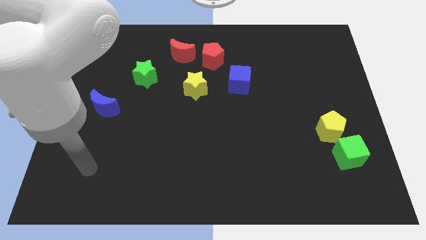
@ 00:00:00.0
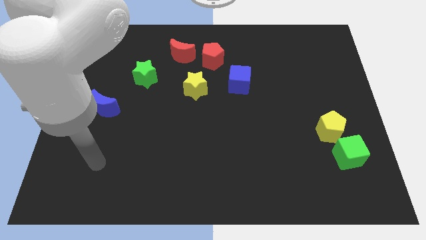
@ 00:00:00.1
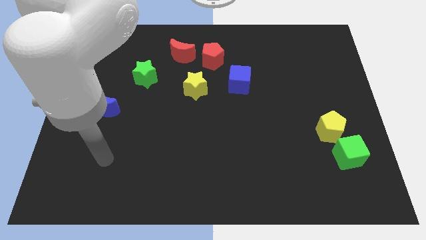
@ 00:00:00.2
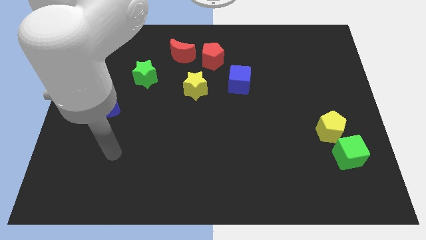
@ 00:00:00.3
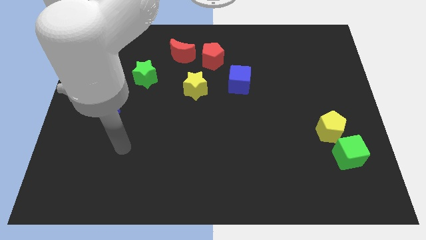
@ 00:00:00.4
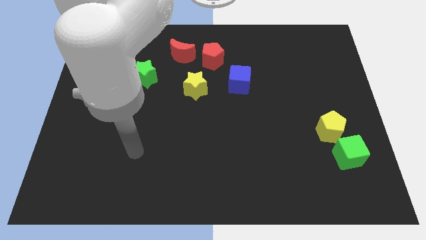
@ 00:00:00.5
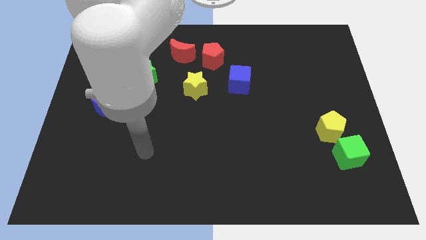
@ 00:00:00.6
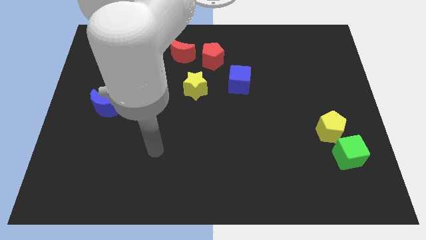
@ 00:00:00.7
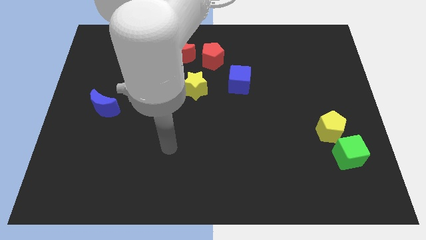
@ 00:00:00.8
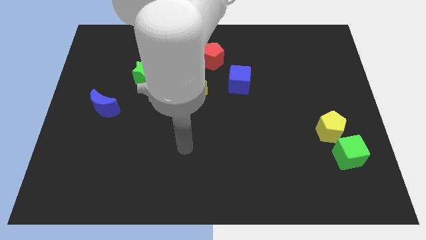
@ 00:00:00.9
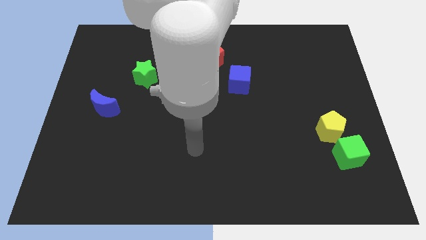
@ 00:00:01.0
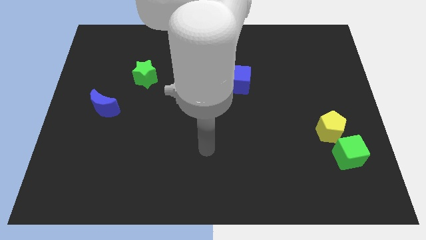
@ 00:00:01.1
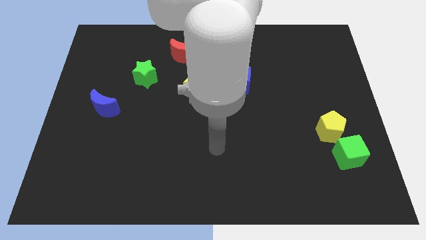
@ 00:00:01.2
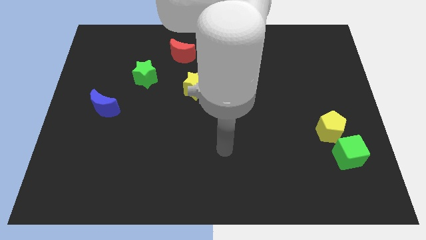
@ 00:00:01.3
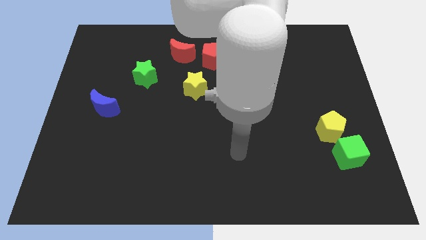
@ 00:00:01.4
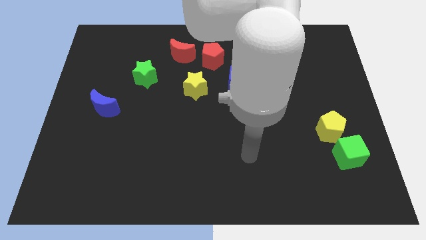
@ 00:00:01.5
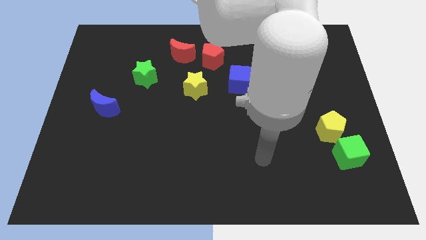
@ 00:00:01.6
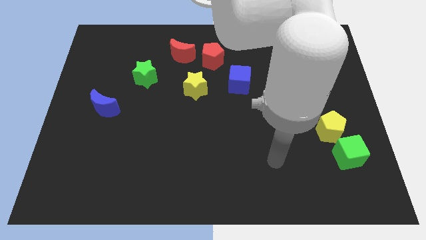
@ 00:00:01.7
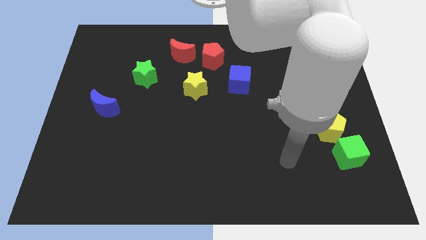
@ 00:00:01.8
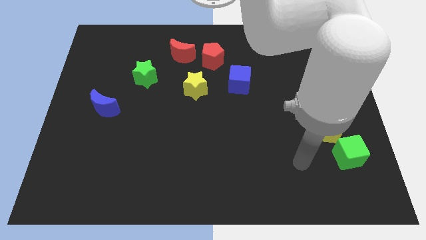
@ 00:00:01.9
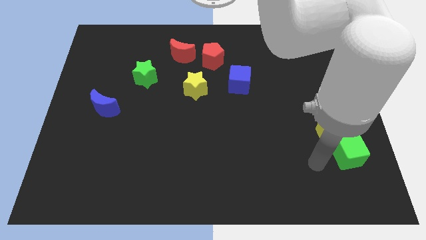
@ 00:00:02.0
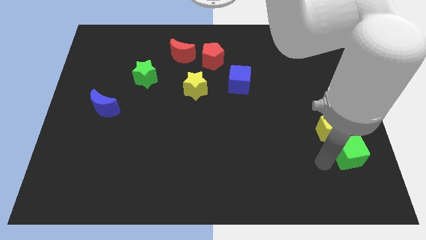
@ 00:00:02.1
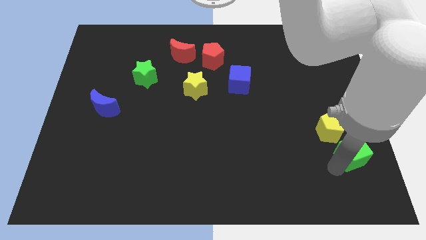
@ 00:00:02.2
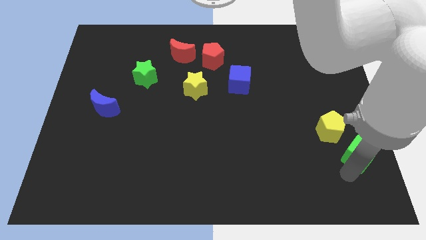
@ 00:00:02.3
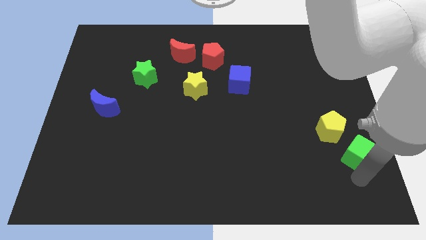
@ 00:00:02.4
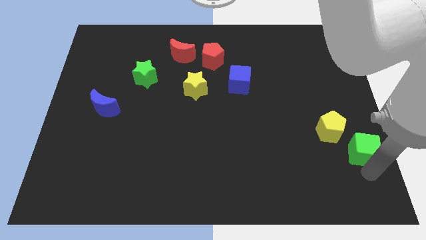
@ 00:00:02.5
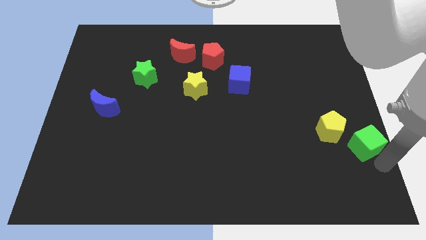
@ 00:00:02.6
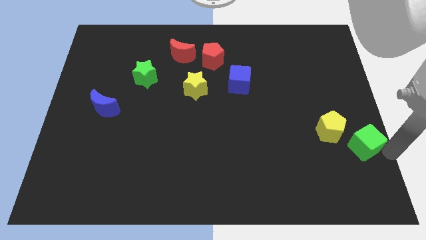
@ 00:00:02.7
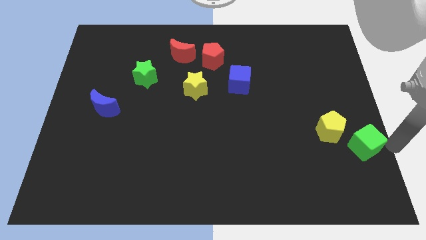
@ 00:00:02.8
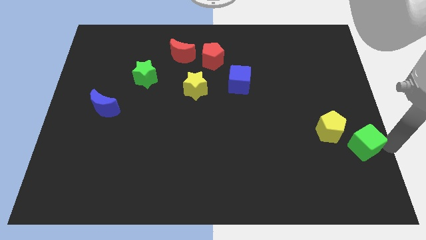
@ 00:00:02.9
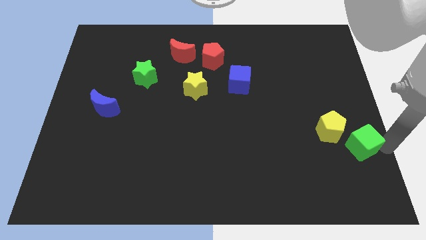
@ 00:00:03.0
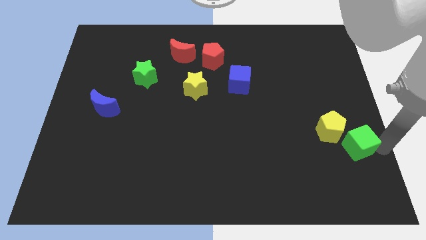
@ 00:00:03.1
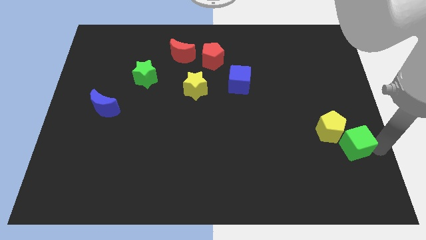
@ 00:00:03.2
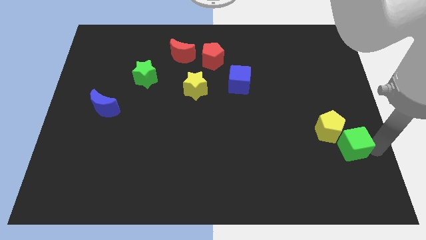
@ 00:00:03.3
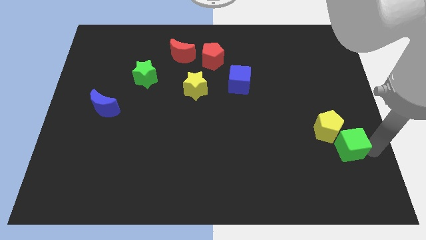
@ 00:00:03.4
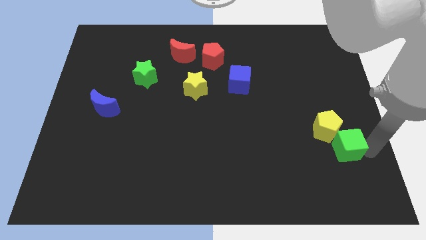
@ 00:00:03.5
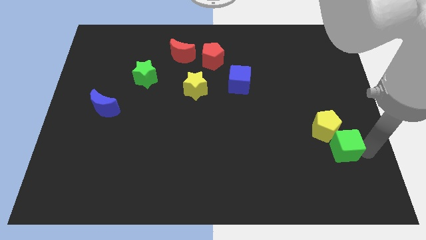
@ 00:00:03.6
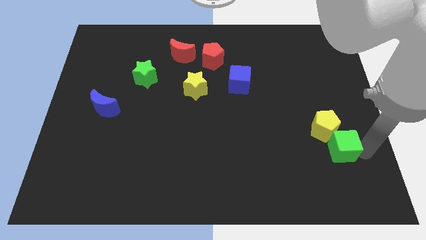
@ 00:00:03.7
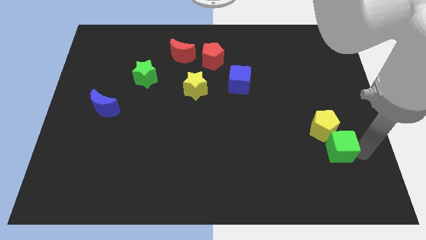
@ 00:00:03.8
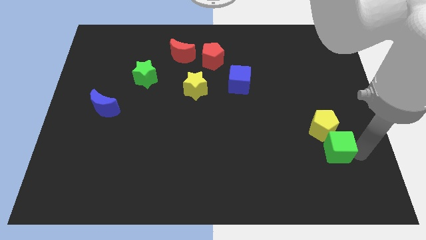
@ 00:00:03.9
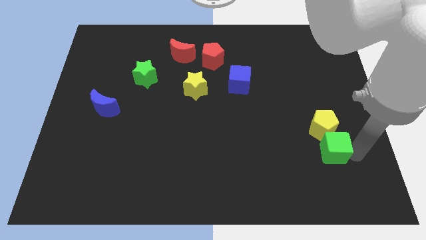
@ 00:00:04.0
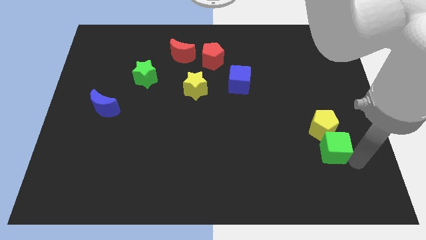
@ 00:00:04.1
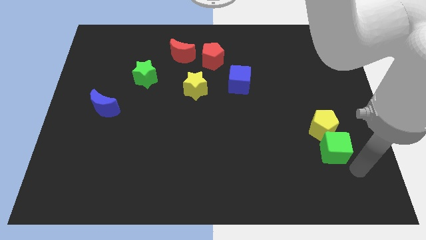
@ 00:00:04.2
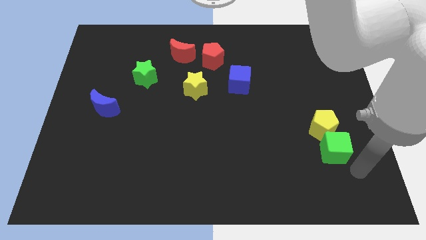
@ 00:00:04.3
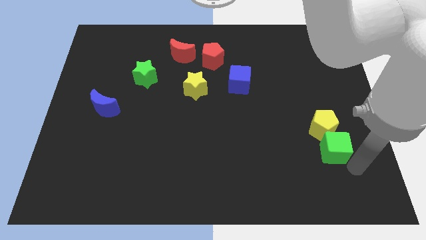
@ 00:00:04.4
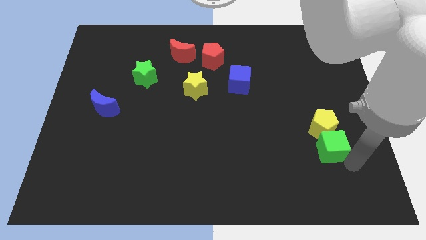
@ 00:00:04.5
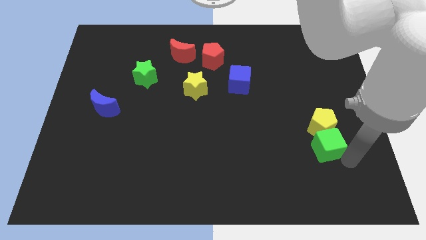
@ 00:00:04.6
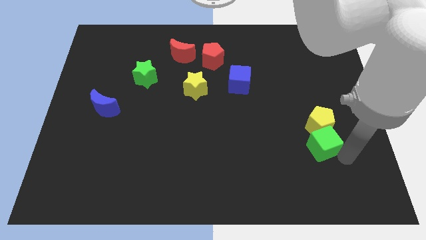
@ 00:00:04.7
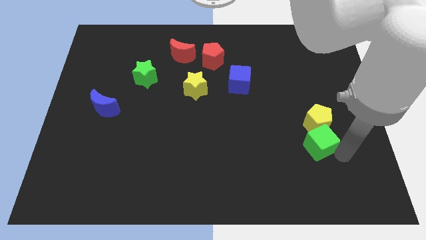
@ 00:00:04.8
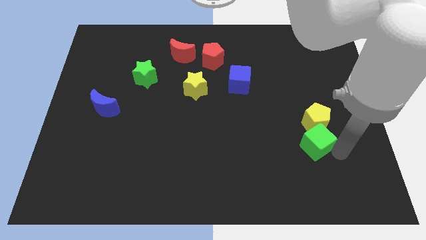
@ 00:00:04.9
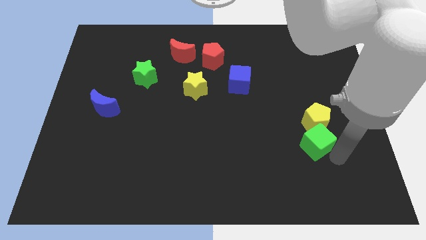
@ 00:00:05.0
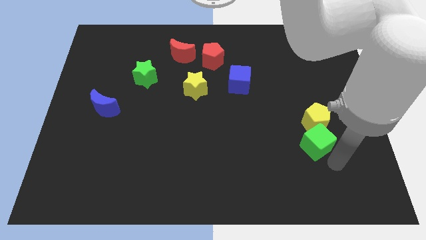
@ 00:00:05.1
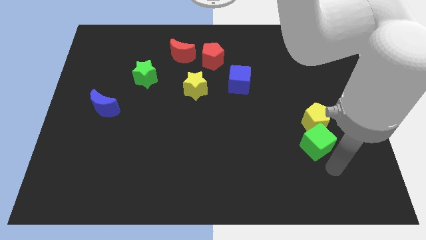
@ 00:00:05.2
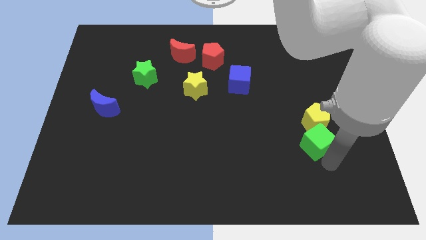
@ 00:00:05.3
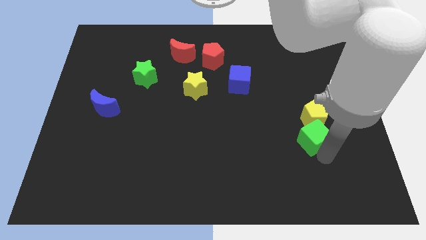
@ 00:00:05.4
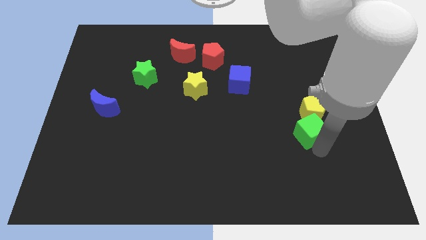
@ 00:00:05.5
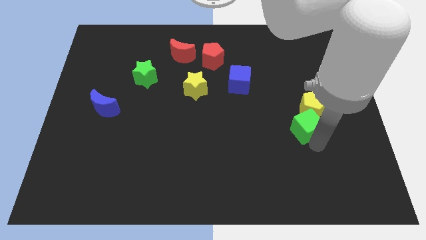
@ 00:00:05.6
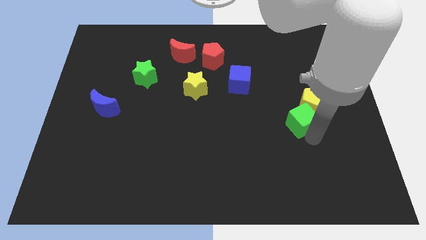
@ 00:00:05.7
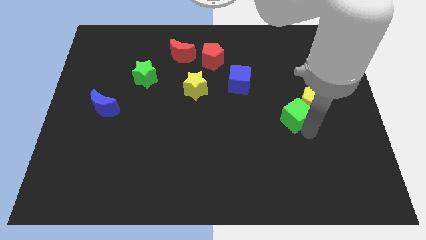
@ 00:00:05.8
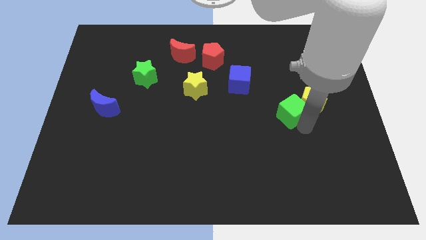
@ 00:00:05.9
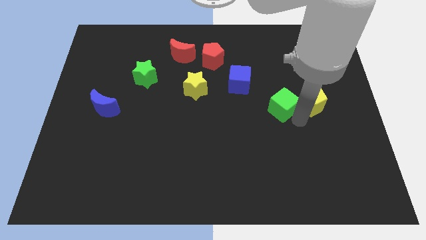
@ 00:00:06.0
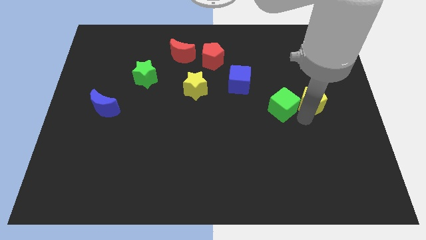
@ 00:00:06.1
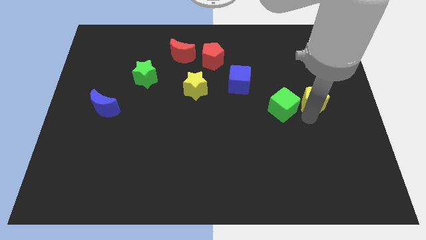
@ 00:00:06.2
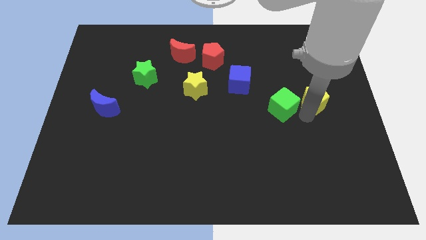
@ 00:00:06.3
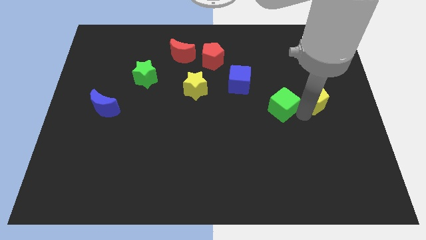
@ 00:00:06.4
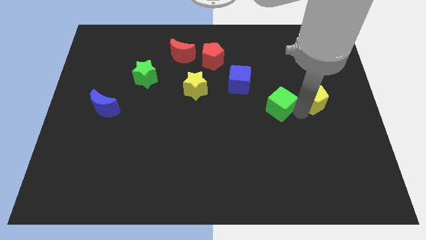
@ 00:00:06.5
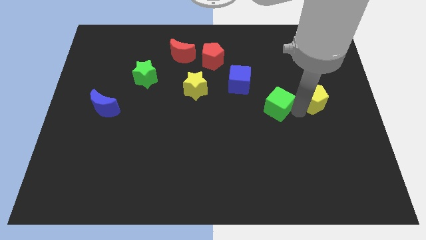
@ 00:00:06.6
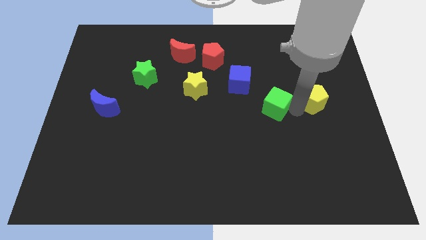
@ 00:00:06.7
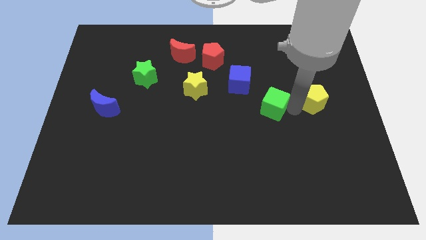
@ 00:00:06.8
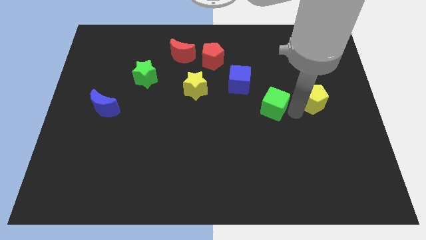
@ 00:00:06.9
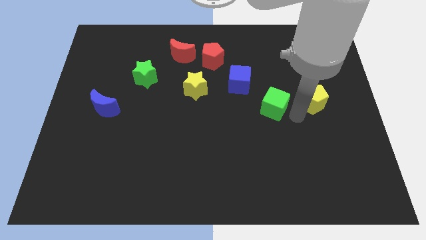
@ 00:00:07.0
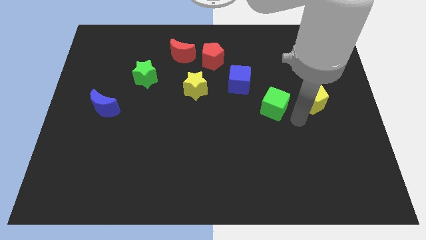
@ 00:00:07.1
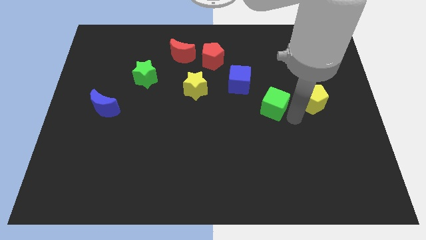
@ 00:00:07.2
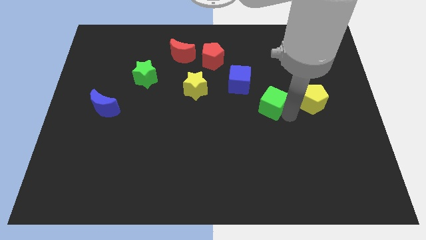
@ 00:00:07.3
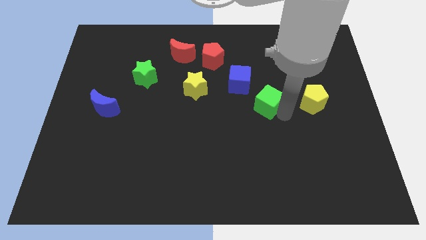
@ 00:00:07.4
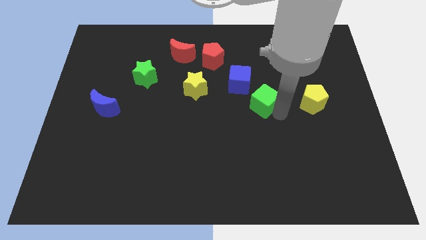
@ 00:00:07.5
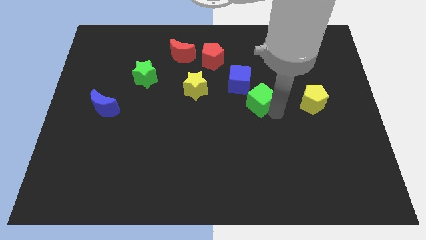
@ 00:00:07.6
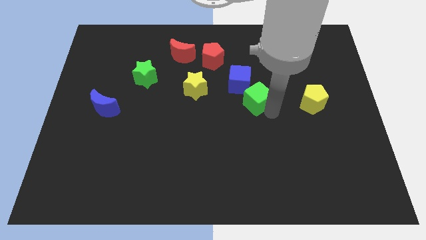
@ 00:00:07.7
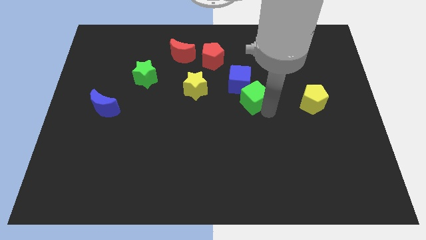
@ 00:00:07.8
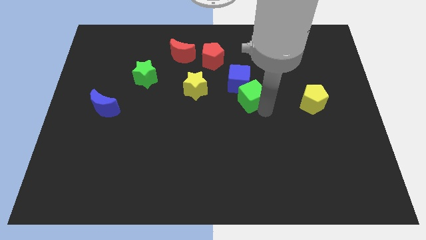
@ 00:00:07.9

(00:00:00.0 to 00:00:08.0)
push the green cube to the blue cube

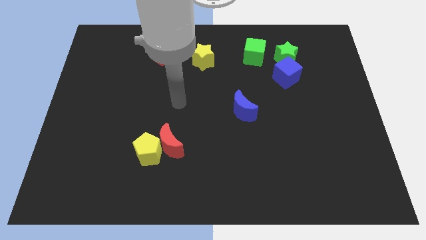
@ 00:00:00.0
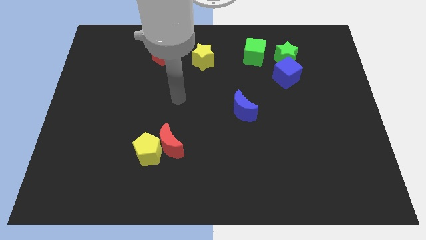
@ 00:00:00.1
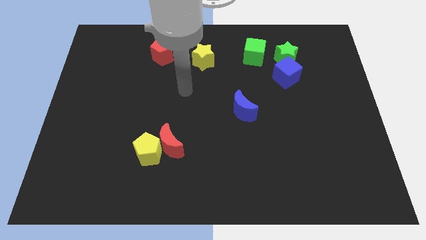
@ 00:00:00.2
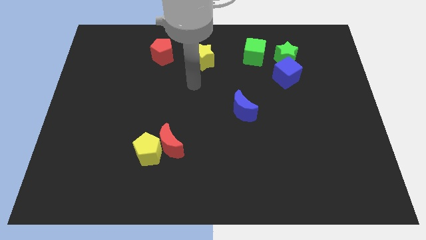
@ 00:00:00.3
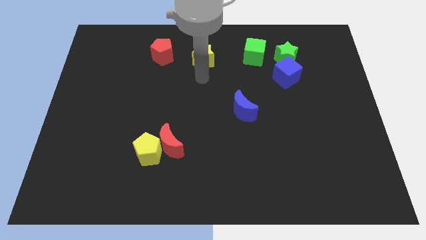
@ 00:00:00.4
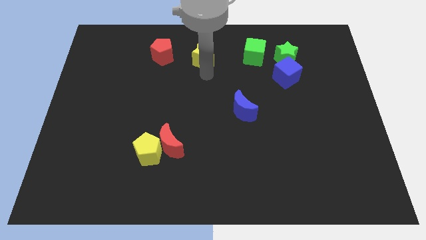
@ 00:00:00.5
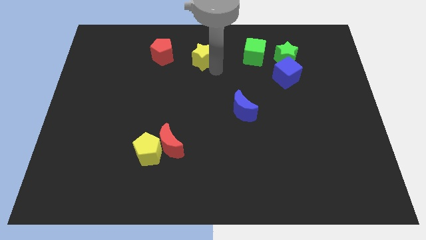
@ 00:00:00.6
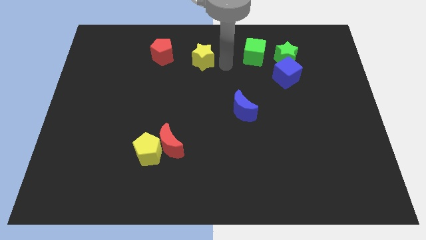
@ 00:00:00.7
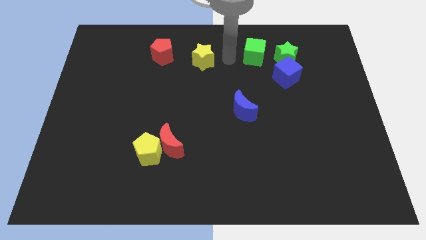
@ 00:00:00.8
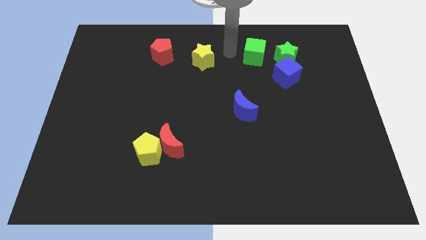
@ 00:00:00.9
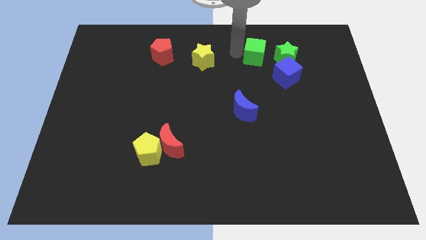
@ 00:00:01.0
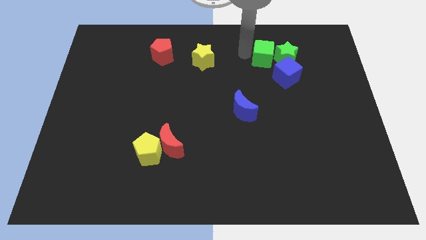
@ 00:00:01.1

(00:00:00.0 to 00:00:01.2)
slide the green cube close to the green star
